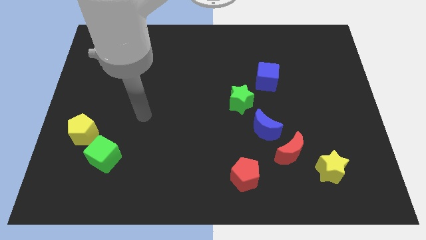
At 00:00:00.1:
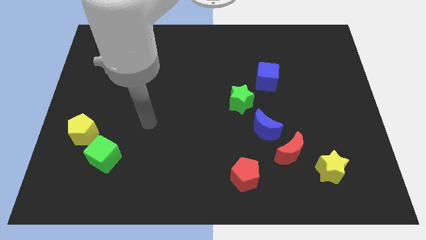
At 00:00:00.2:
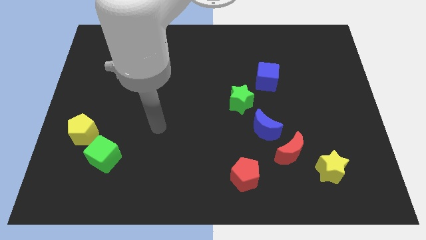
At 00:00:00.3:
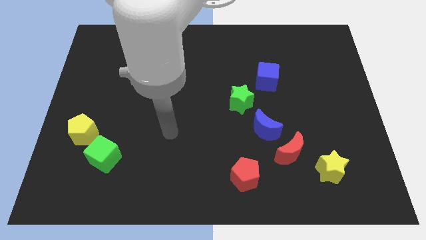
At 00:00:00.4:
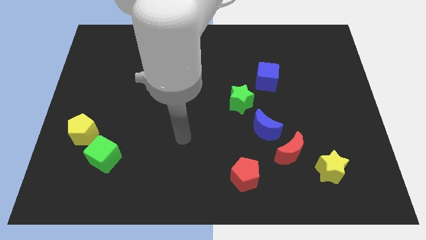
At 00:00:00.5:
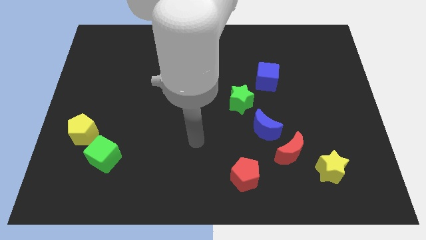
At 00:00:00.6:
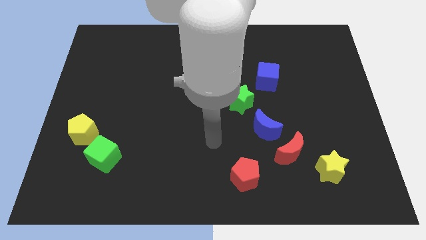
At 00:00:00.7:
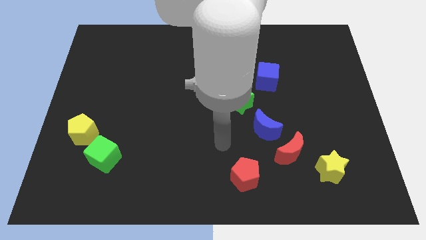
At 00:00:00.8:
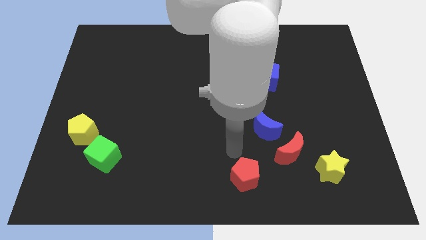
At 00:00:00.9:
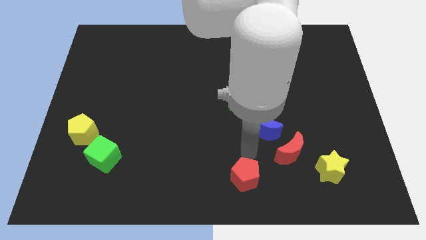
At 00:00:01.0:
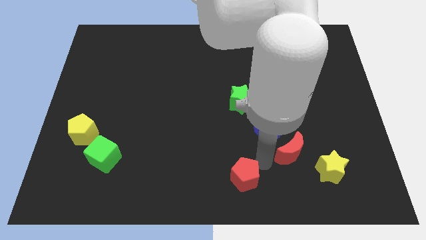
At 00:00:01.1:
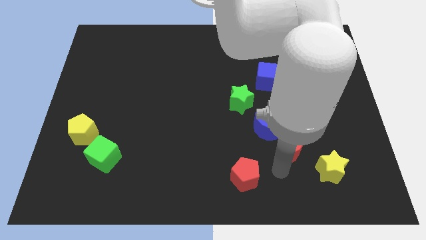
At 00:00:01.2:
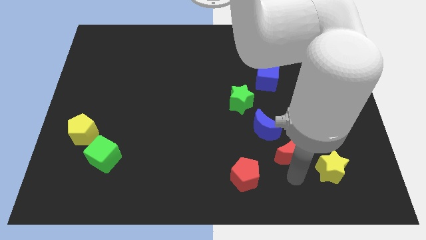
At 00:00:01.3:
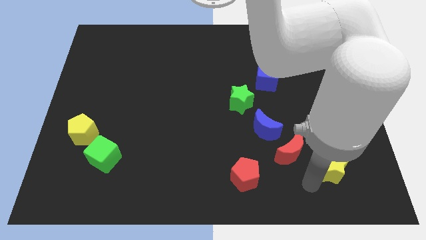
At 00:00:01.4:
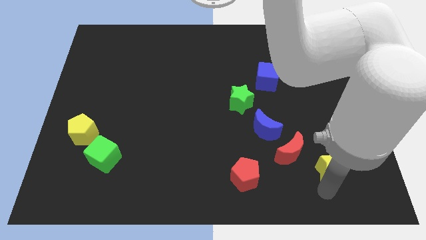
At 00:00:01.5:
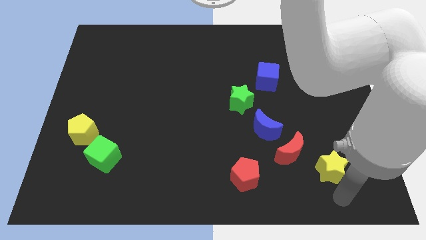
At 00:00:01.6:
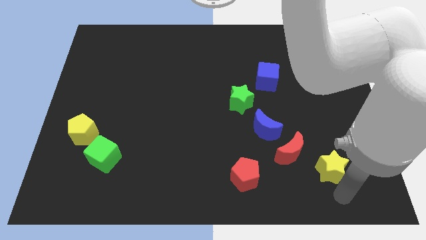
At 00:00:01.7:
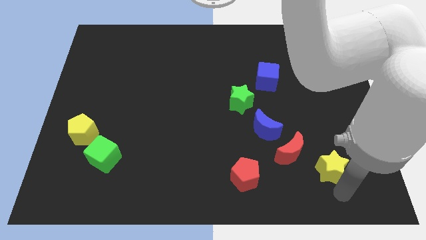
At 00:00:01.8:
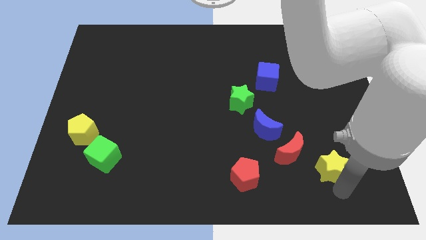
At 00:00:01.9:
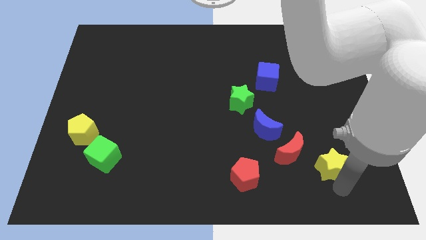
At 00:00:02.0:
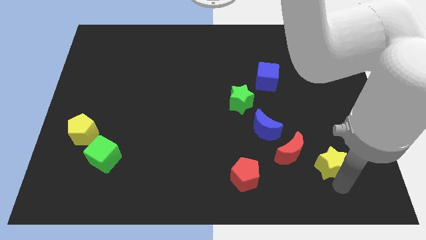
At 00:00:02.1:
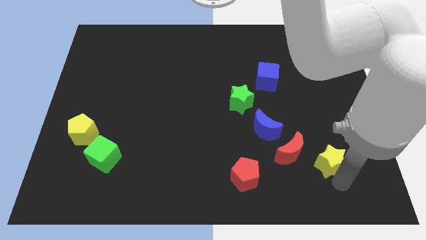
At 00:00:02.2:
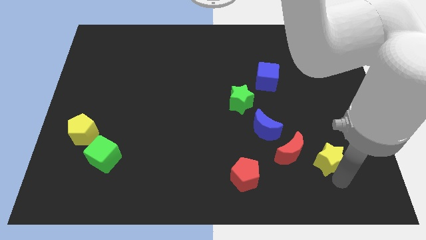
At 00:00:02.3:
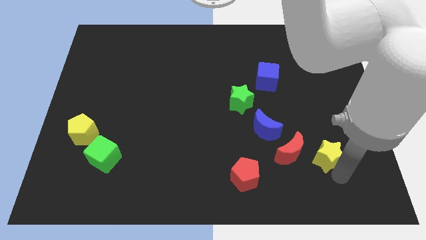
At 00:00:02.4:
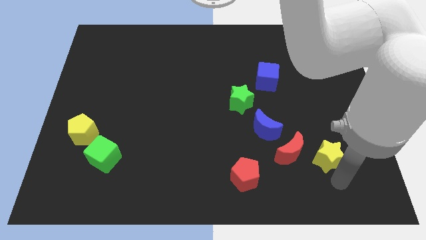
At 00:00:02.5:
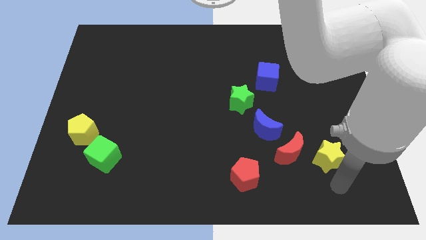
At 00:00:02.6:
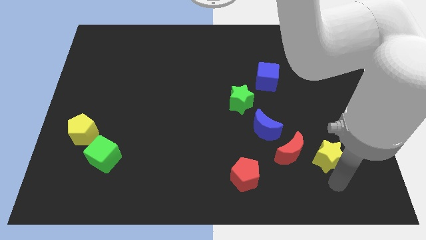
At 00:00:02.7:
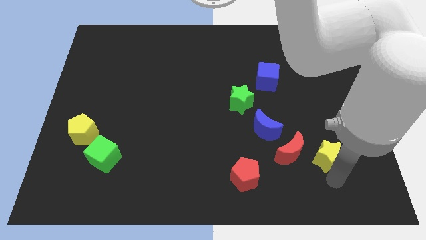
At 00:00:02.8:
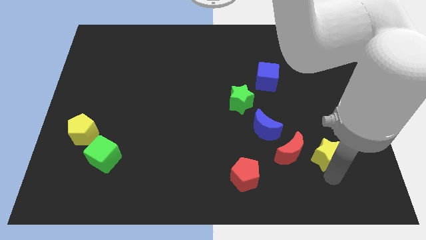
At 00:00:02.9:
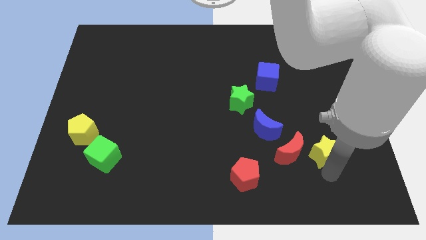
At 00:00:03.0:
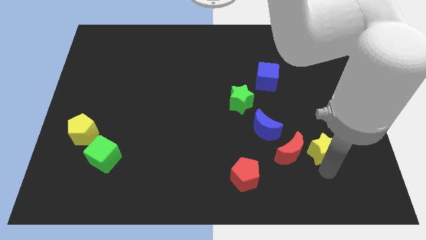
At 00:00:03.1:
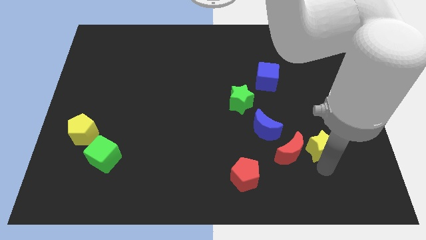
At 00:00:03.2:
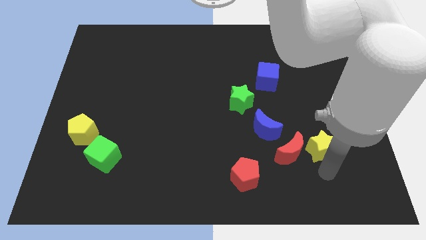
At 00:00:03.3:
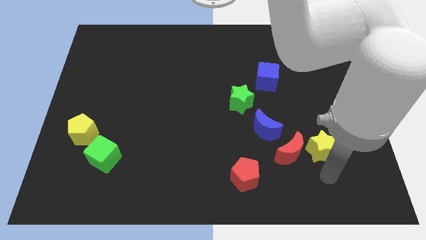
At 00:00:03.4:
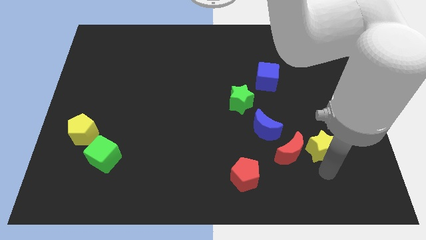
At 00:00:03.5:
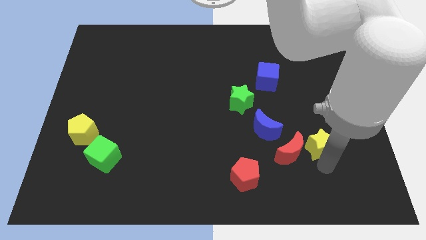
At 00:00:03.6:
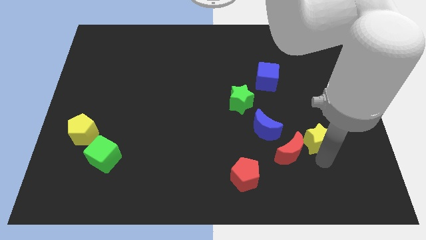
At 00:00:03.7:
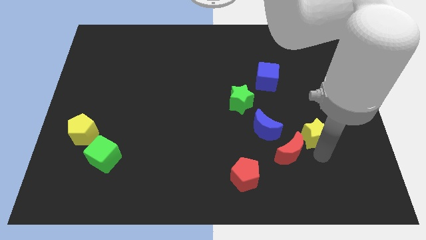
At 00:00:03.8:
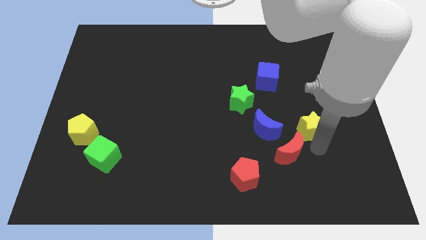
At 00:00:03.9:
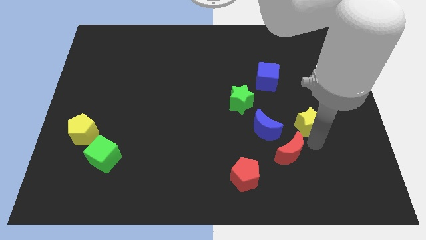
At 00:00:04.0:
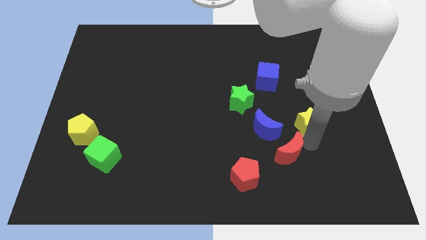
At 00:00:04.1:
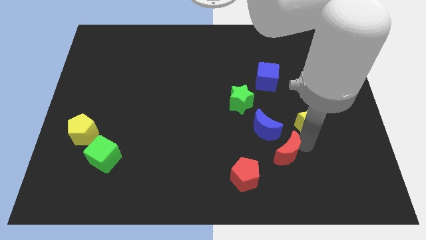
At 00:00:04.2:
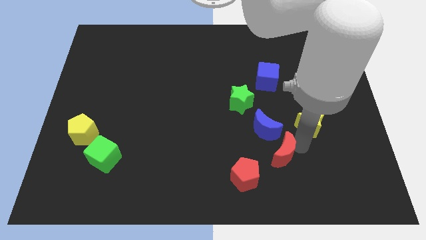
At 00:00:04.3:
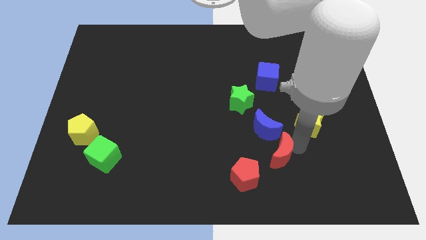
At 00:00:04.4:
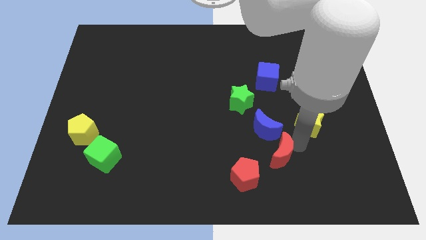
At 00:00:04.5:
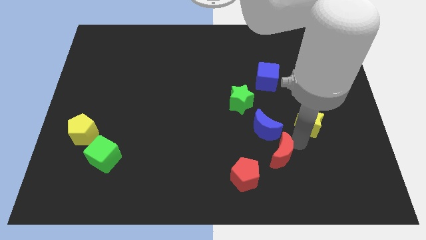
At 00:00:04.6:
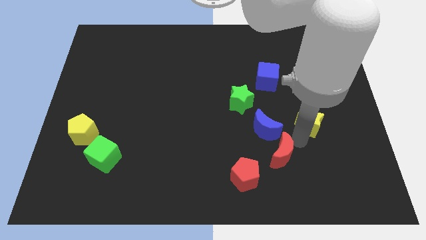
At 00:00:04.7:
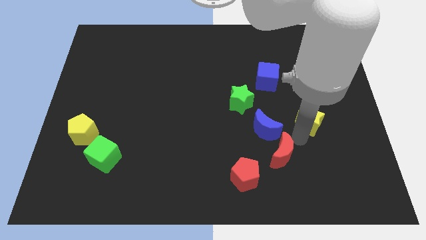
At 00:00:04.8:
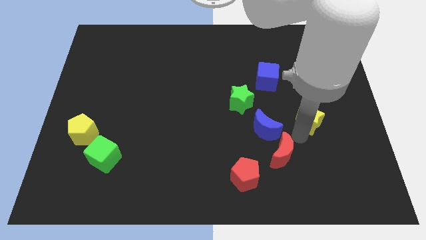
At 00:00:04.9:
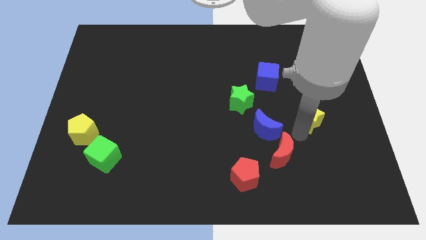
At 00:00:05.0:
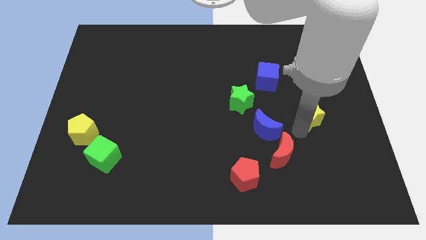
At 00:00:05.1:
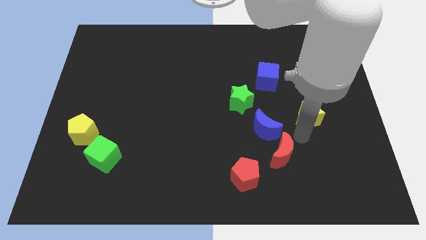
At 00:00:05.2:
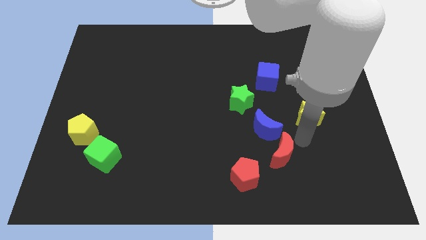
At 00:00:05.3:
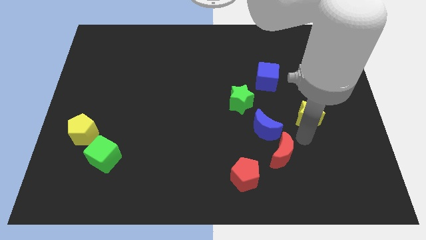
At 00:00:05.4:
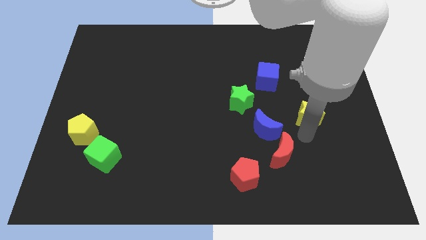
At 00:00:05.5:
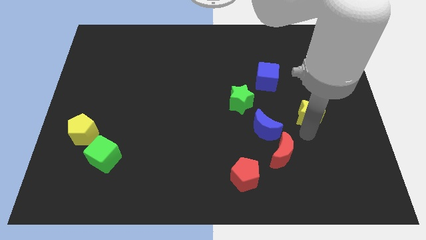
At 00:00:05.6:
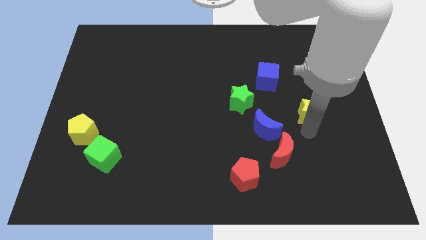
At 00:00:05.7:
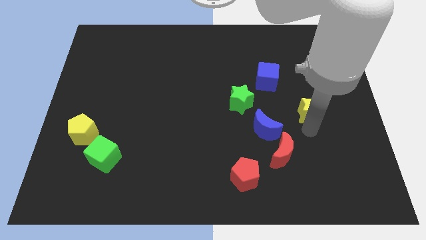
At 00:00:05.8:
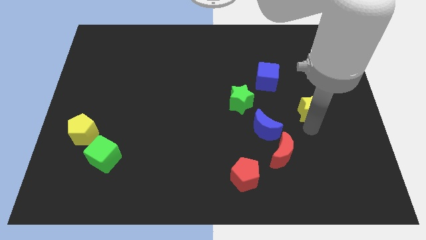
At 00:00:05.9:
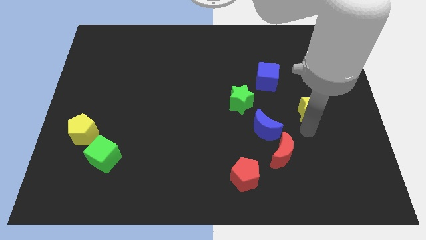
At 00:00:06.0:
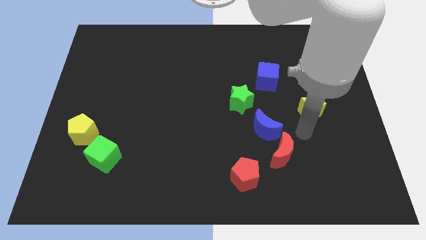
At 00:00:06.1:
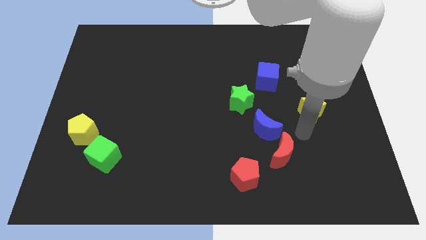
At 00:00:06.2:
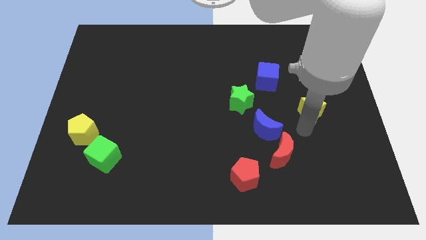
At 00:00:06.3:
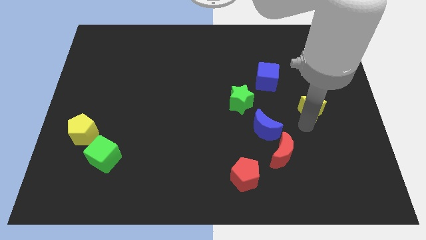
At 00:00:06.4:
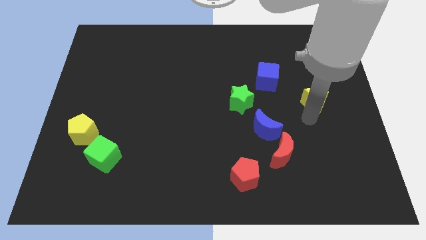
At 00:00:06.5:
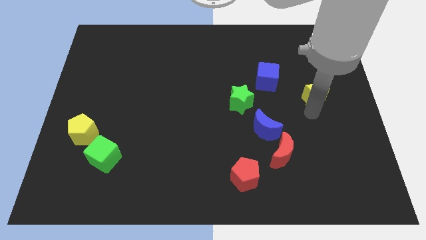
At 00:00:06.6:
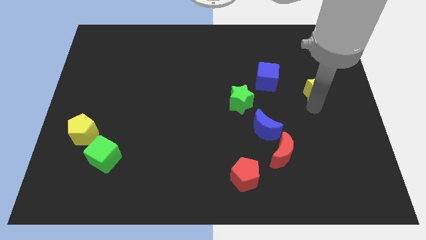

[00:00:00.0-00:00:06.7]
push the yellow star up

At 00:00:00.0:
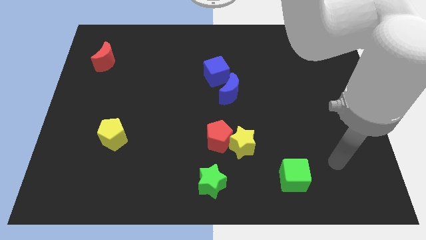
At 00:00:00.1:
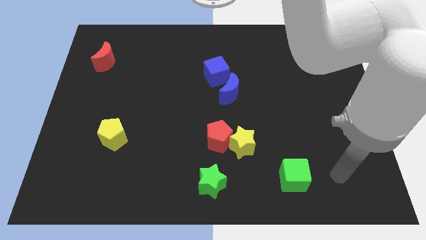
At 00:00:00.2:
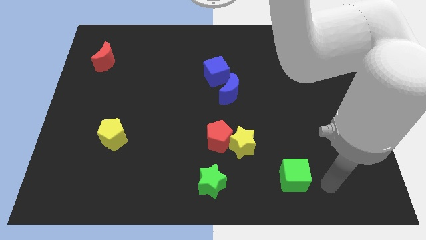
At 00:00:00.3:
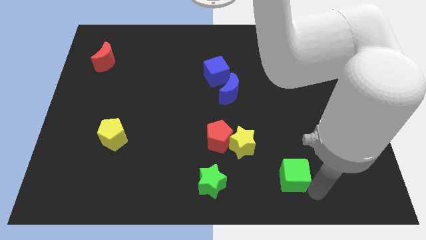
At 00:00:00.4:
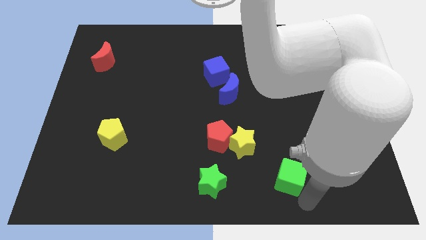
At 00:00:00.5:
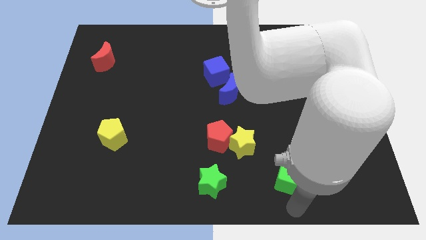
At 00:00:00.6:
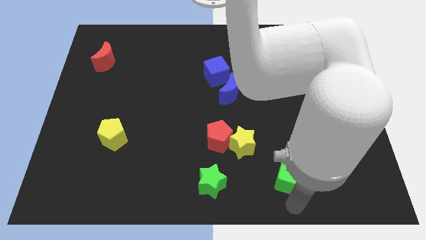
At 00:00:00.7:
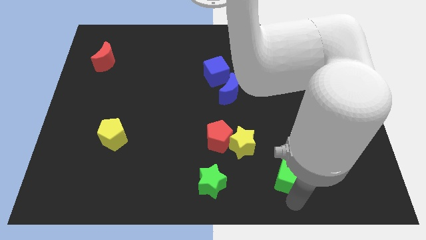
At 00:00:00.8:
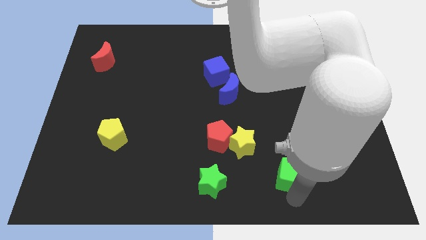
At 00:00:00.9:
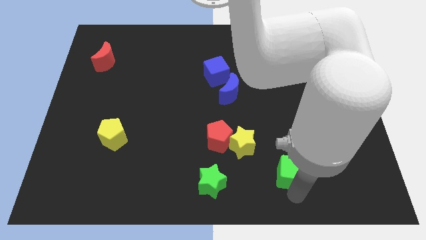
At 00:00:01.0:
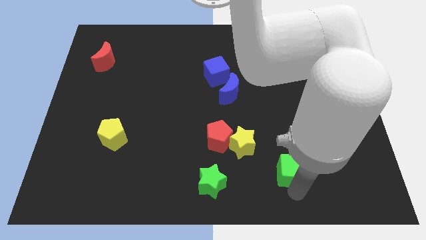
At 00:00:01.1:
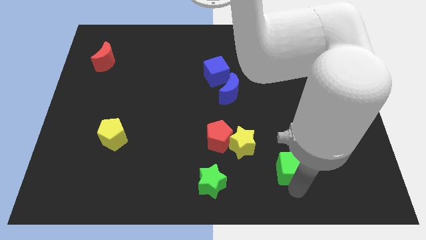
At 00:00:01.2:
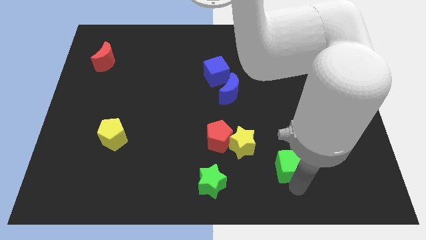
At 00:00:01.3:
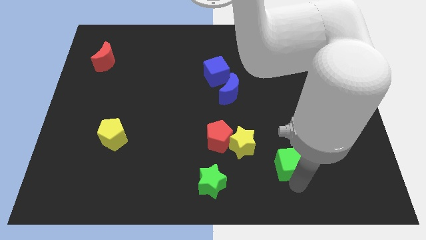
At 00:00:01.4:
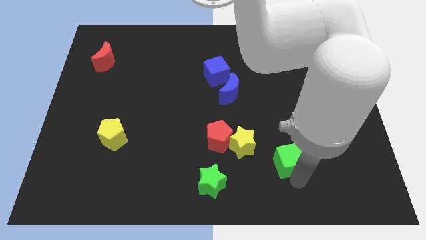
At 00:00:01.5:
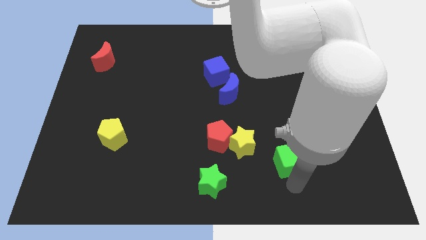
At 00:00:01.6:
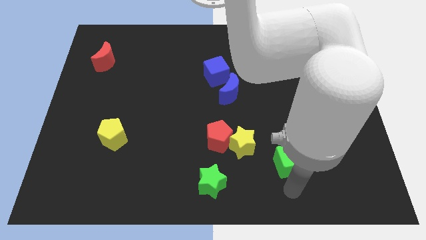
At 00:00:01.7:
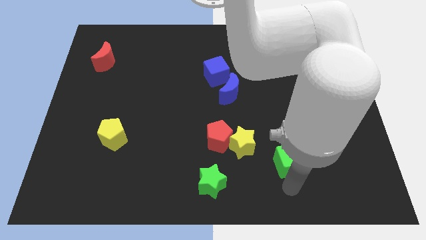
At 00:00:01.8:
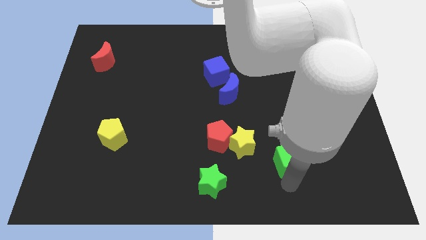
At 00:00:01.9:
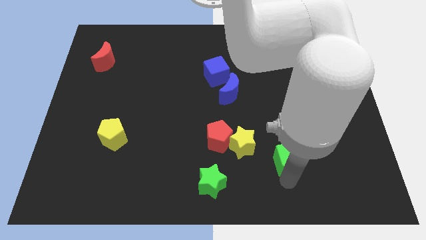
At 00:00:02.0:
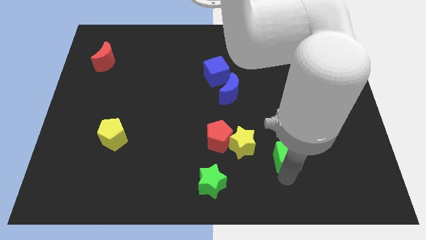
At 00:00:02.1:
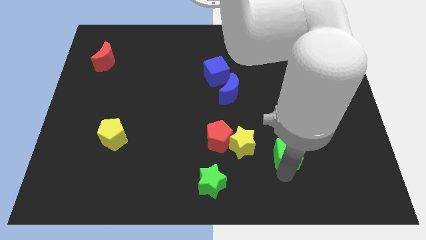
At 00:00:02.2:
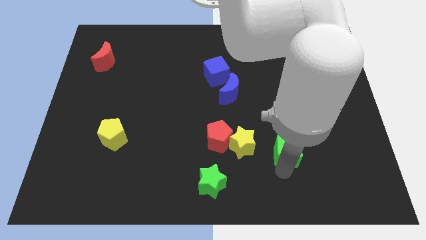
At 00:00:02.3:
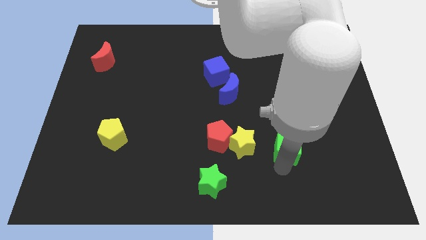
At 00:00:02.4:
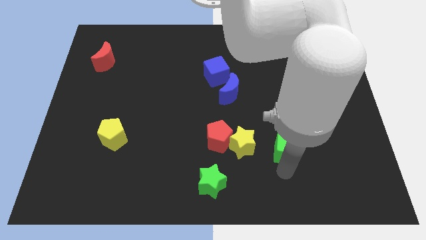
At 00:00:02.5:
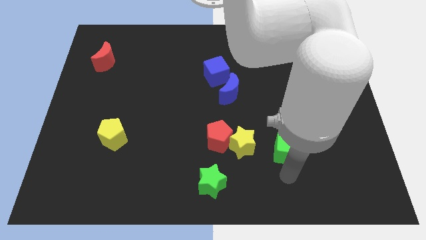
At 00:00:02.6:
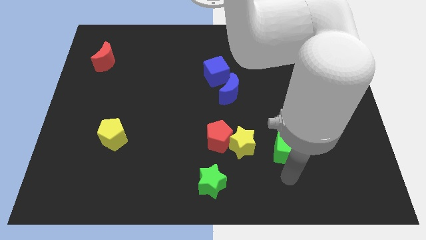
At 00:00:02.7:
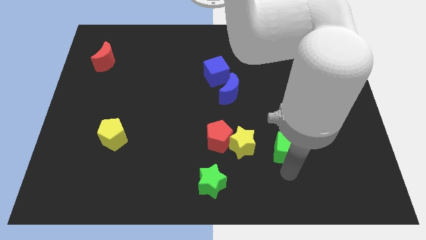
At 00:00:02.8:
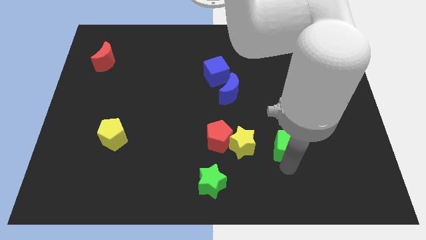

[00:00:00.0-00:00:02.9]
push the green cube a little up
